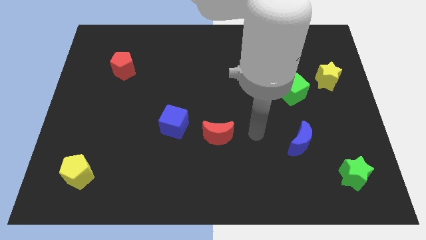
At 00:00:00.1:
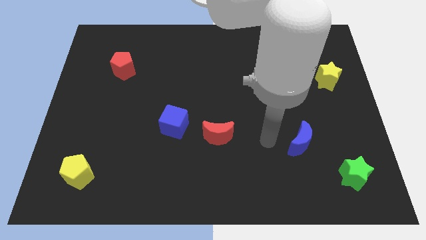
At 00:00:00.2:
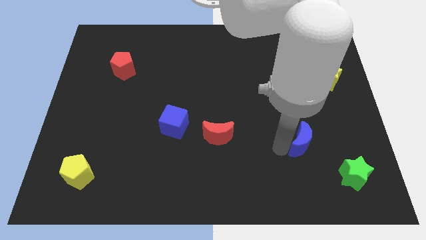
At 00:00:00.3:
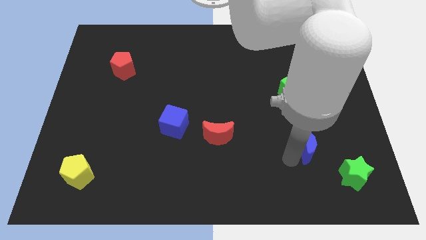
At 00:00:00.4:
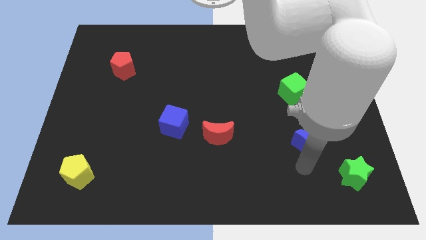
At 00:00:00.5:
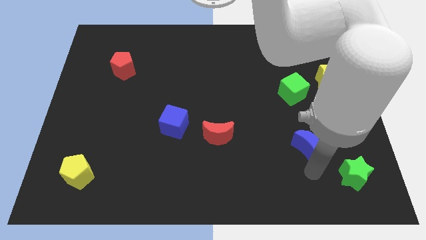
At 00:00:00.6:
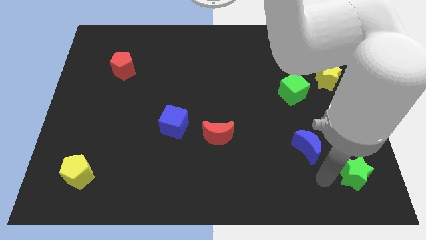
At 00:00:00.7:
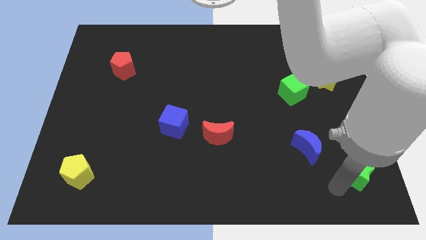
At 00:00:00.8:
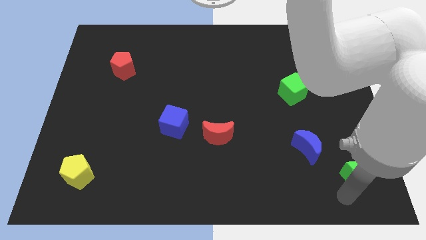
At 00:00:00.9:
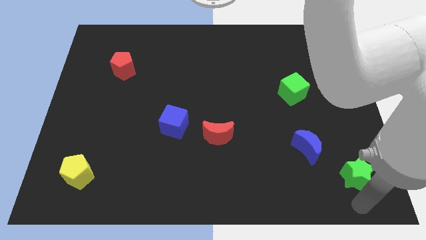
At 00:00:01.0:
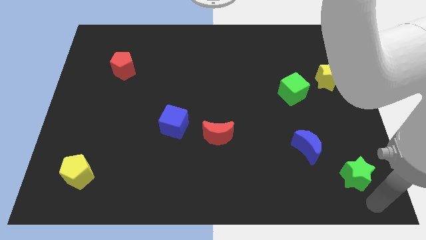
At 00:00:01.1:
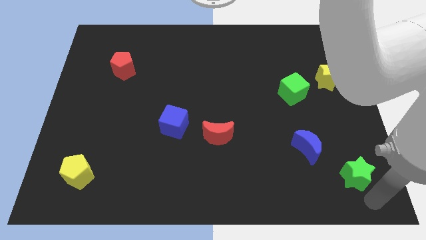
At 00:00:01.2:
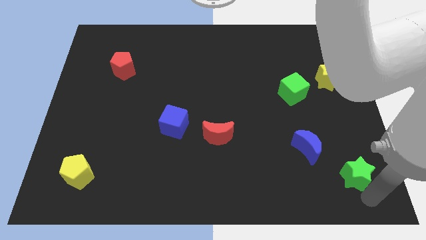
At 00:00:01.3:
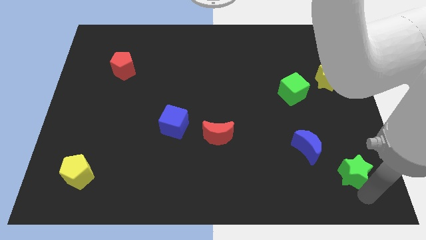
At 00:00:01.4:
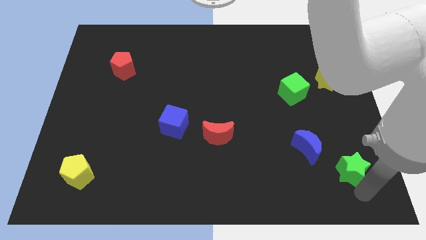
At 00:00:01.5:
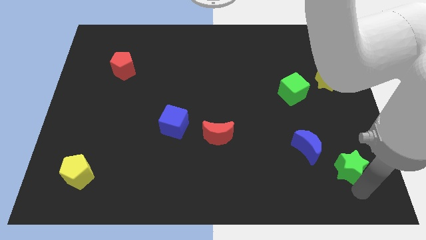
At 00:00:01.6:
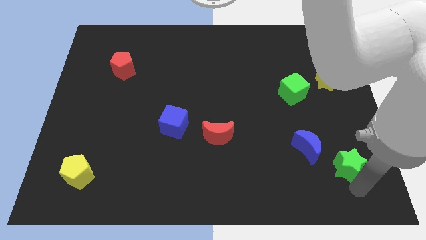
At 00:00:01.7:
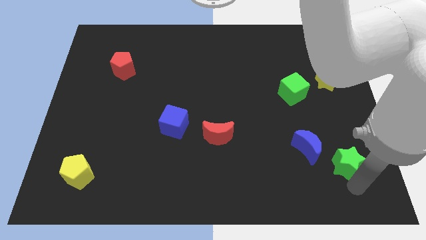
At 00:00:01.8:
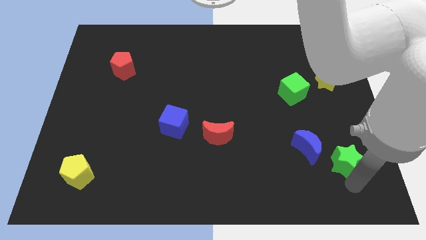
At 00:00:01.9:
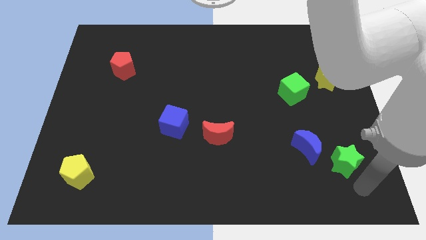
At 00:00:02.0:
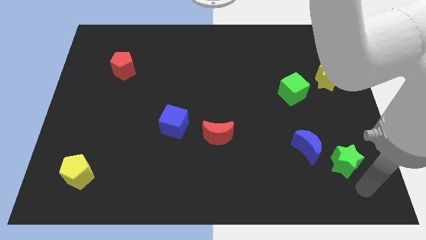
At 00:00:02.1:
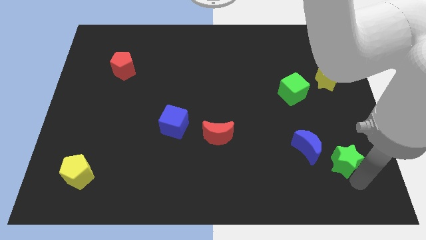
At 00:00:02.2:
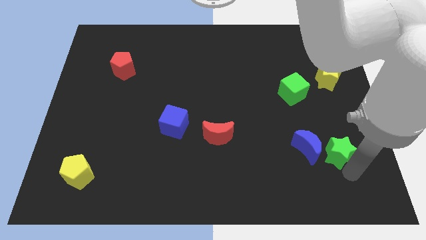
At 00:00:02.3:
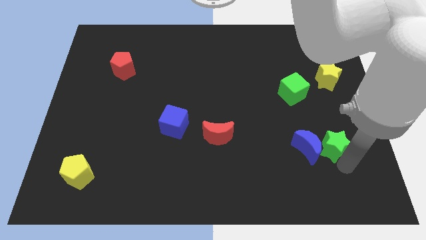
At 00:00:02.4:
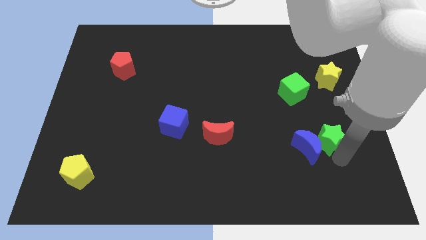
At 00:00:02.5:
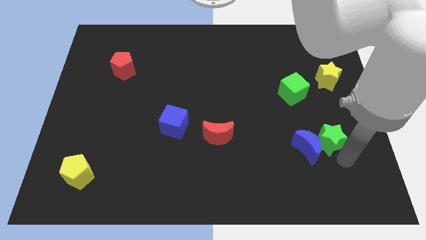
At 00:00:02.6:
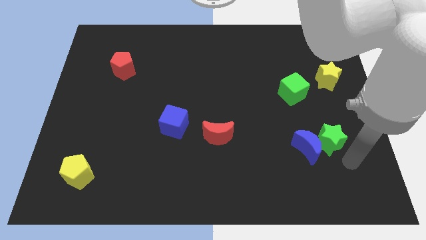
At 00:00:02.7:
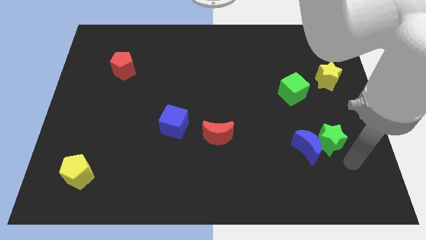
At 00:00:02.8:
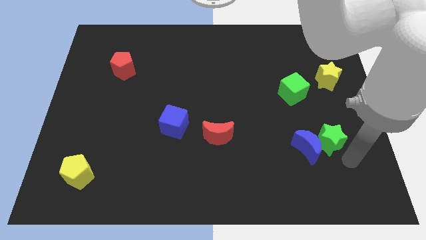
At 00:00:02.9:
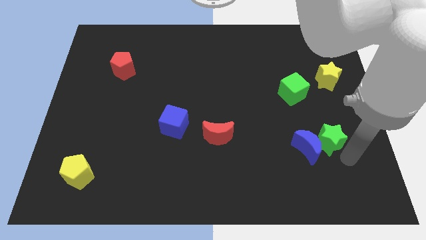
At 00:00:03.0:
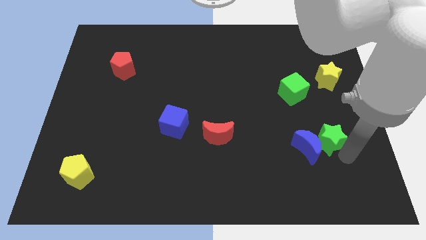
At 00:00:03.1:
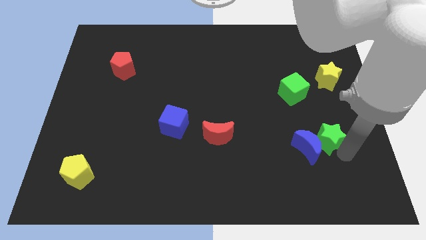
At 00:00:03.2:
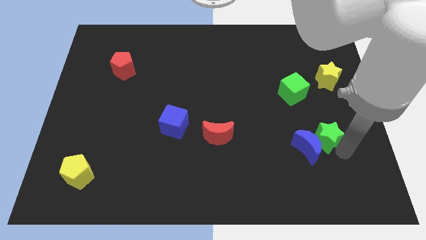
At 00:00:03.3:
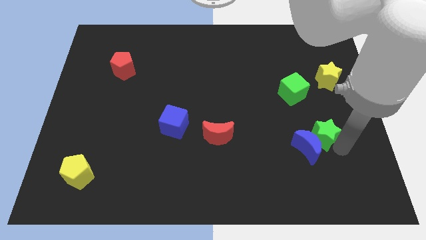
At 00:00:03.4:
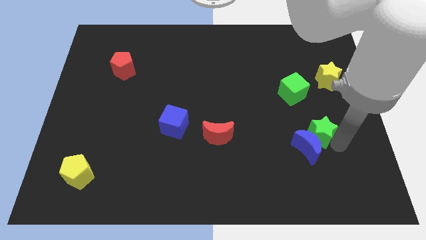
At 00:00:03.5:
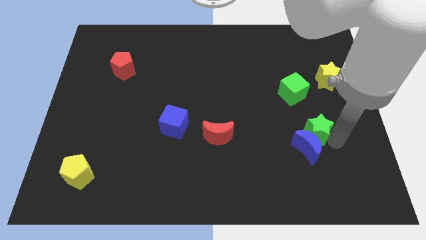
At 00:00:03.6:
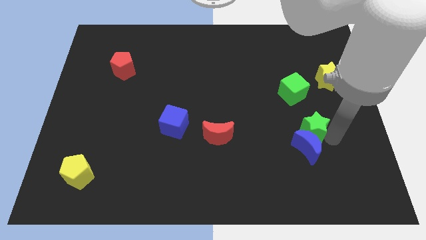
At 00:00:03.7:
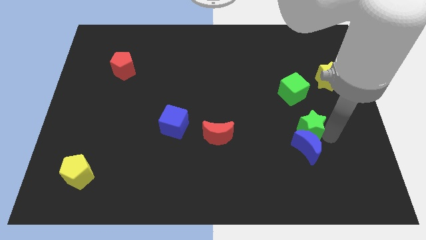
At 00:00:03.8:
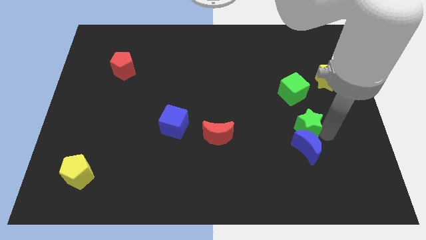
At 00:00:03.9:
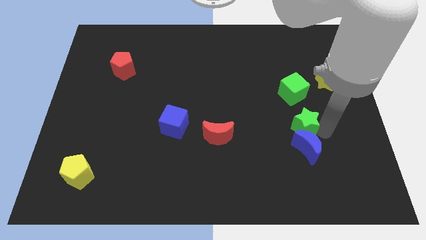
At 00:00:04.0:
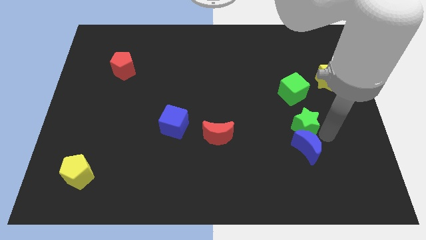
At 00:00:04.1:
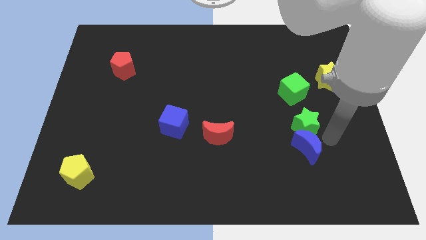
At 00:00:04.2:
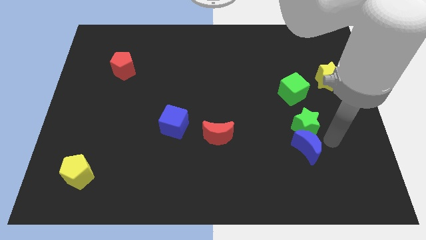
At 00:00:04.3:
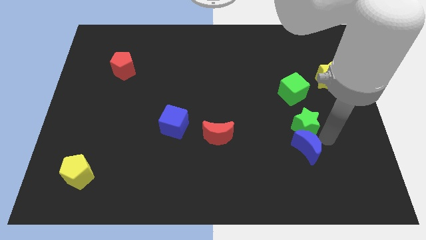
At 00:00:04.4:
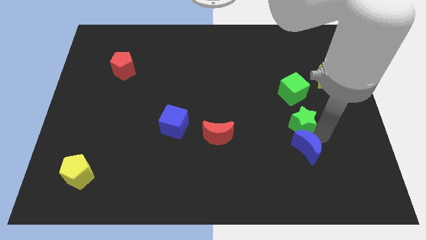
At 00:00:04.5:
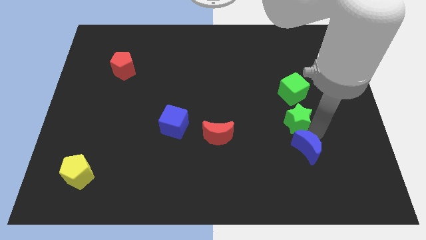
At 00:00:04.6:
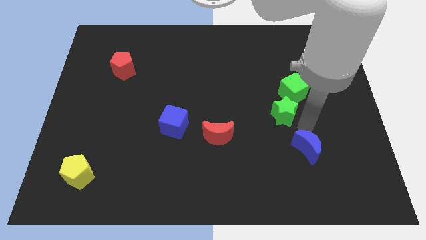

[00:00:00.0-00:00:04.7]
move the green star upwards and left

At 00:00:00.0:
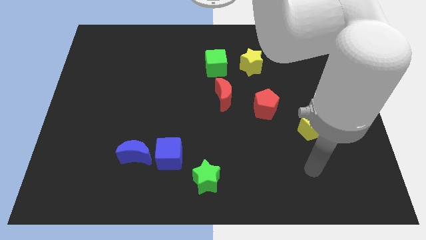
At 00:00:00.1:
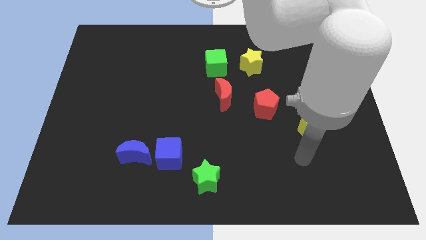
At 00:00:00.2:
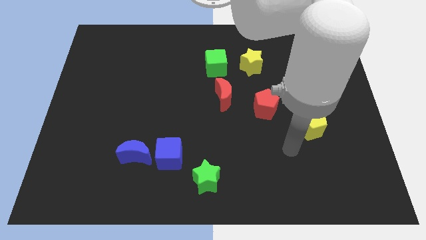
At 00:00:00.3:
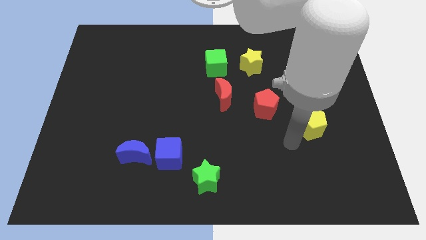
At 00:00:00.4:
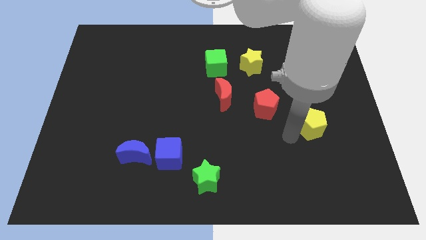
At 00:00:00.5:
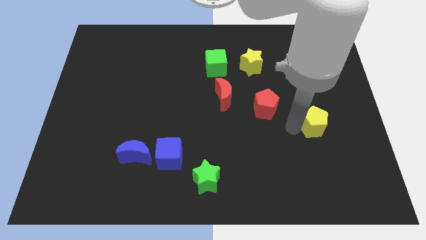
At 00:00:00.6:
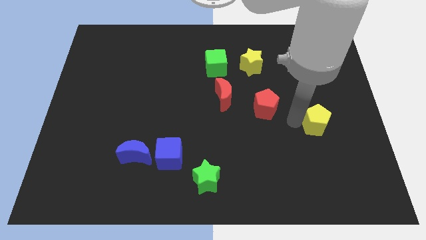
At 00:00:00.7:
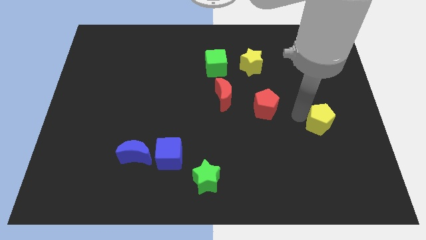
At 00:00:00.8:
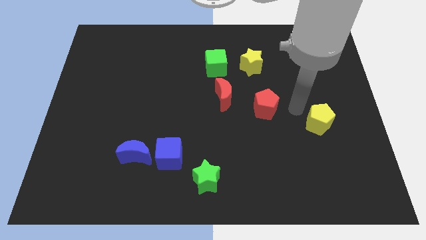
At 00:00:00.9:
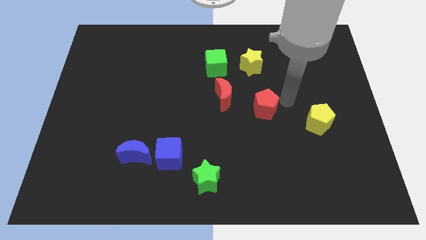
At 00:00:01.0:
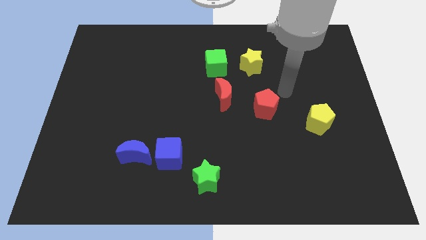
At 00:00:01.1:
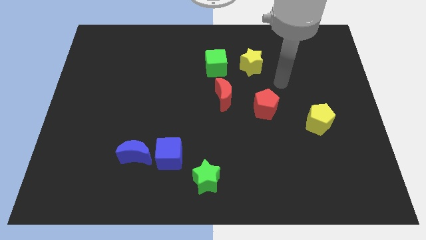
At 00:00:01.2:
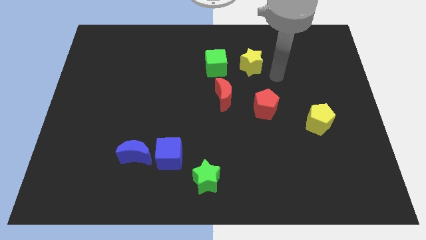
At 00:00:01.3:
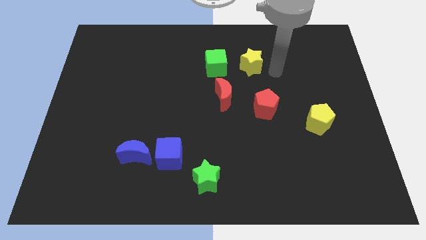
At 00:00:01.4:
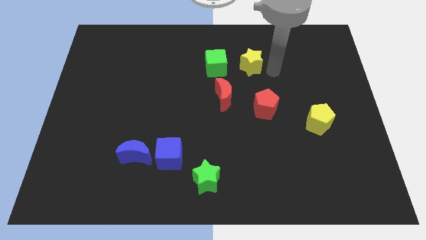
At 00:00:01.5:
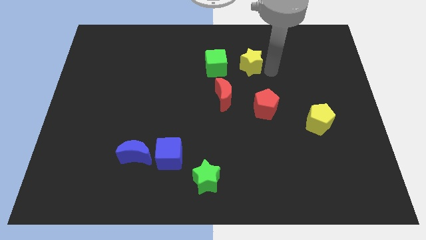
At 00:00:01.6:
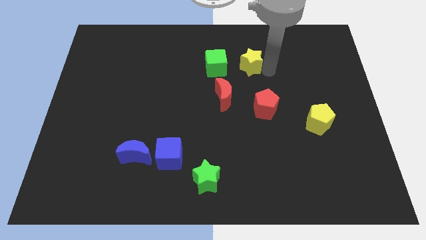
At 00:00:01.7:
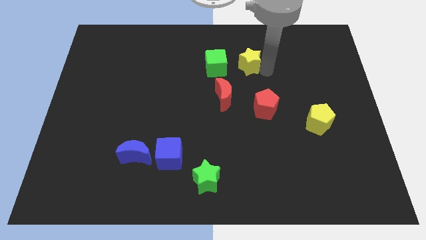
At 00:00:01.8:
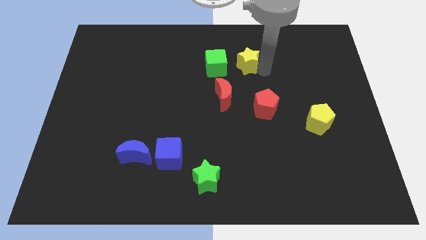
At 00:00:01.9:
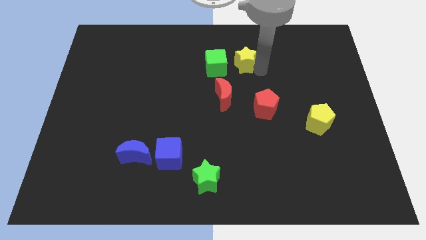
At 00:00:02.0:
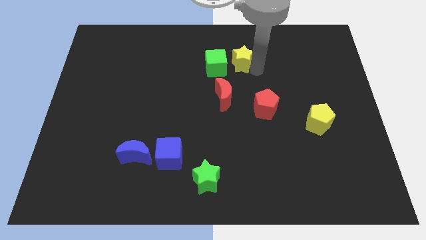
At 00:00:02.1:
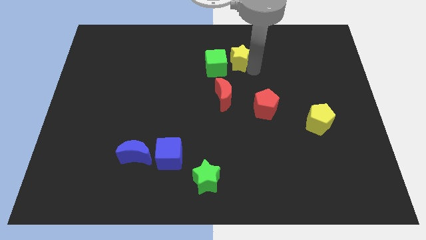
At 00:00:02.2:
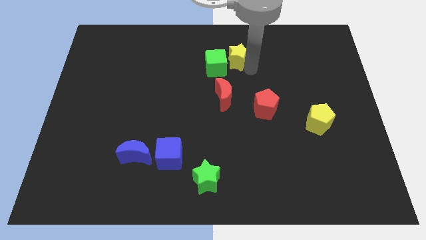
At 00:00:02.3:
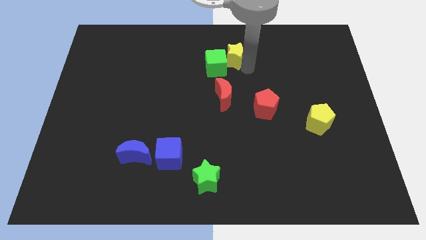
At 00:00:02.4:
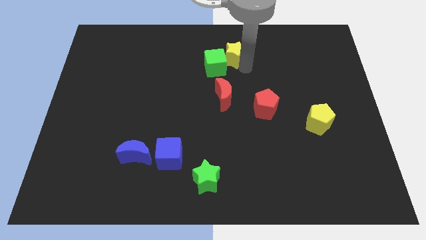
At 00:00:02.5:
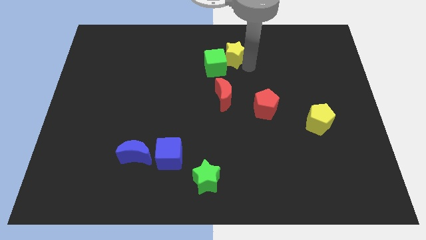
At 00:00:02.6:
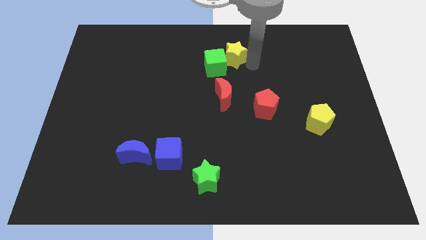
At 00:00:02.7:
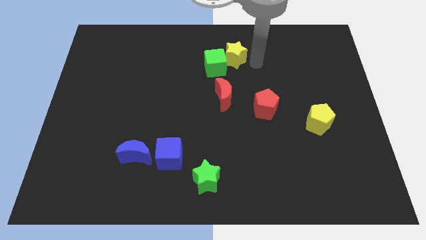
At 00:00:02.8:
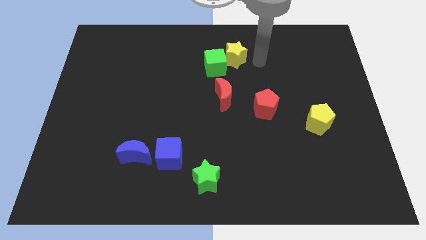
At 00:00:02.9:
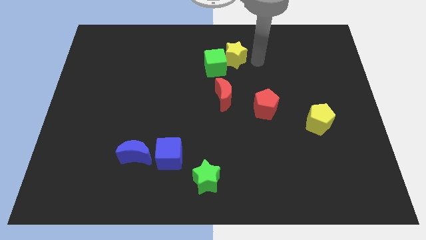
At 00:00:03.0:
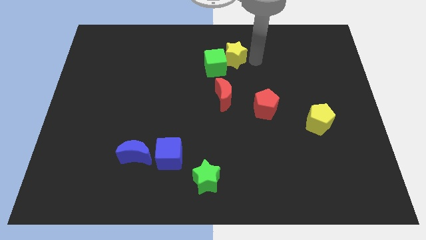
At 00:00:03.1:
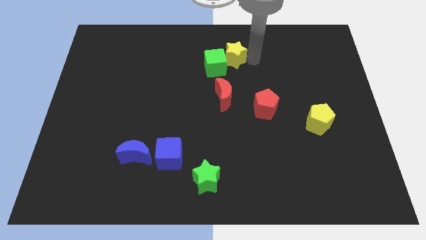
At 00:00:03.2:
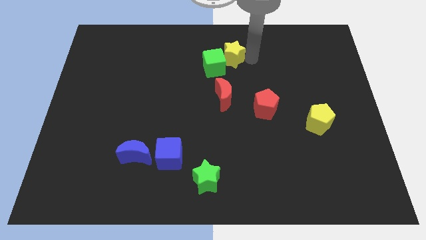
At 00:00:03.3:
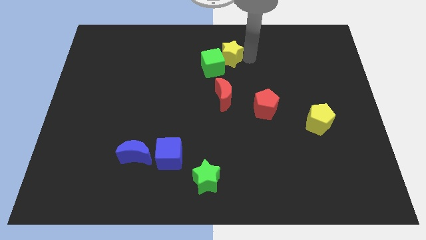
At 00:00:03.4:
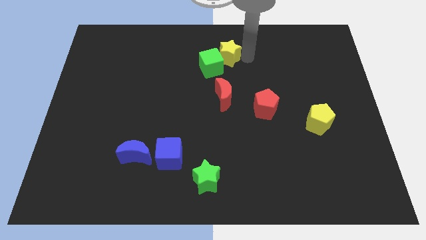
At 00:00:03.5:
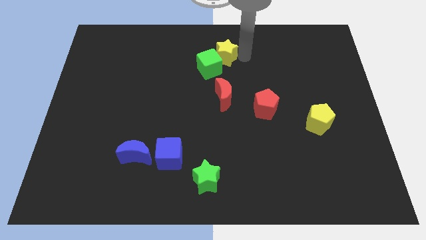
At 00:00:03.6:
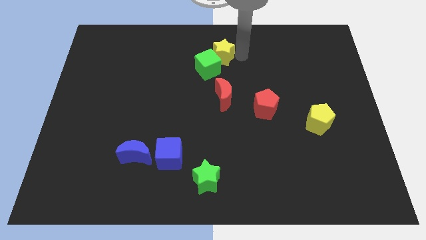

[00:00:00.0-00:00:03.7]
slightly move the yellow star left
